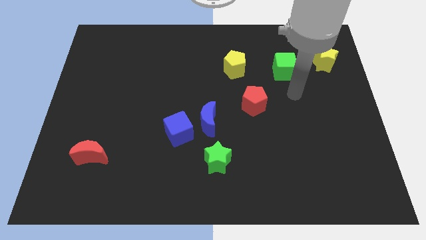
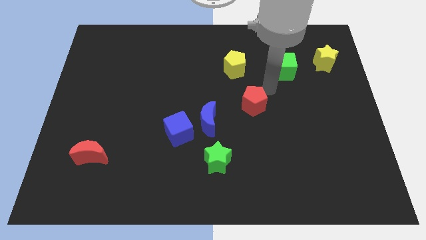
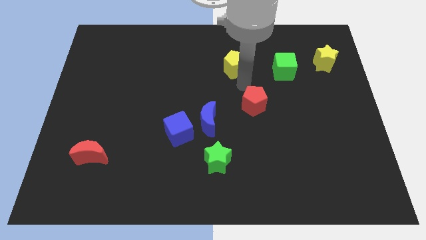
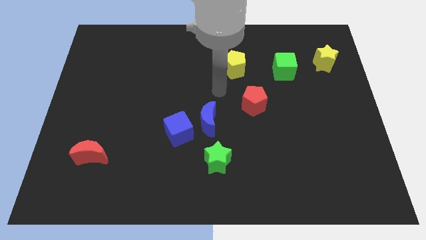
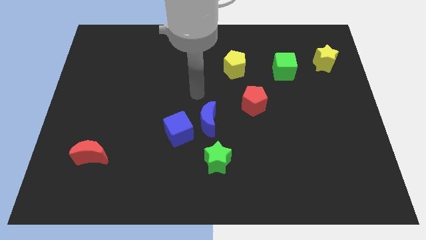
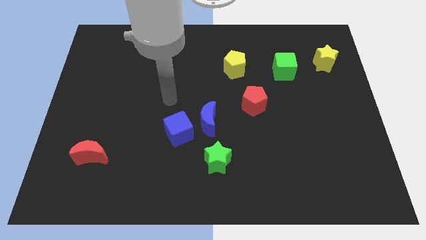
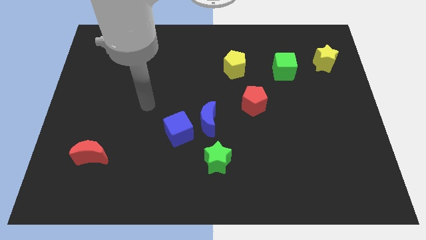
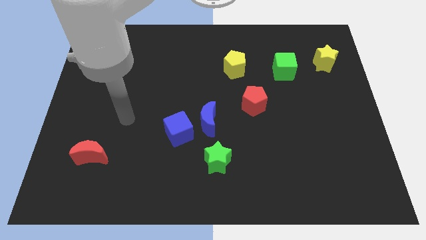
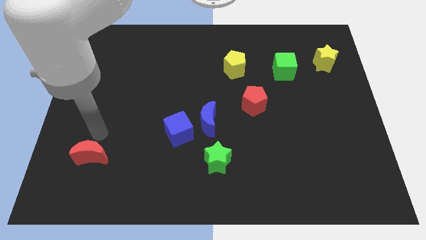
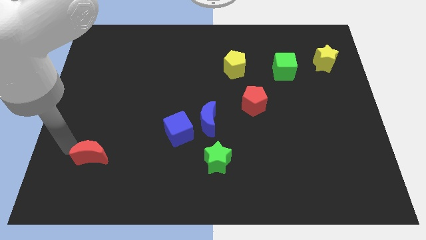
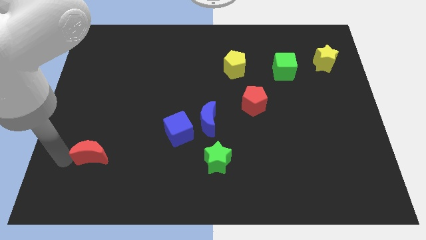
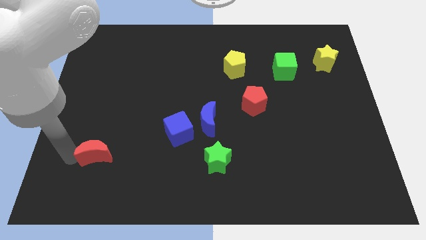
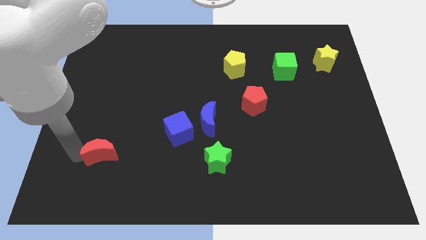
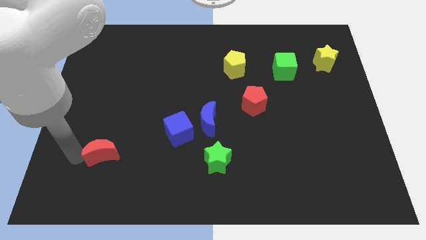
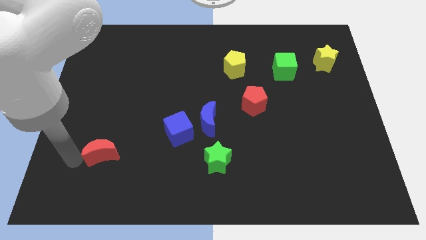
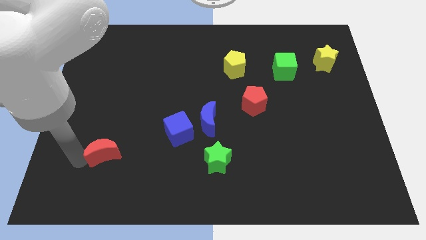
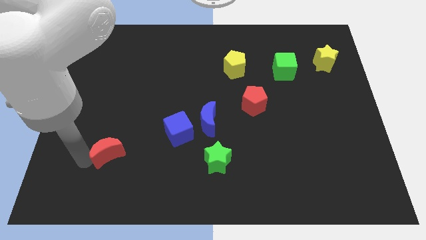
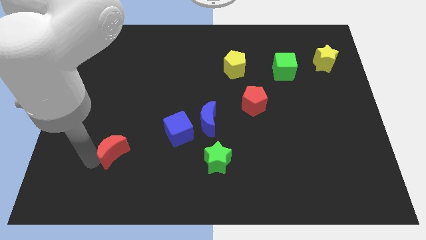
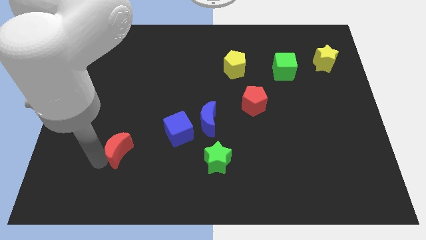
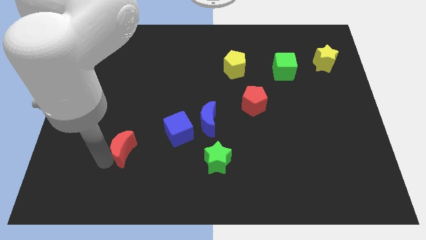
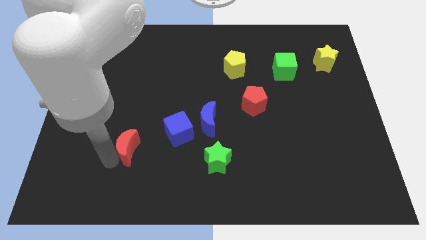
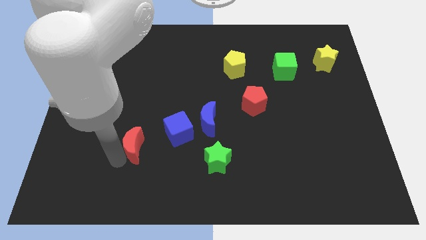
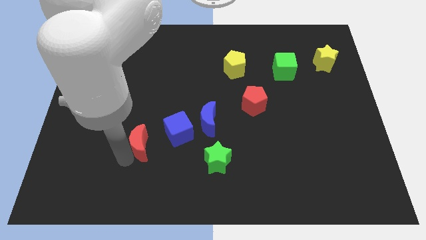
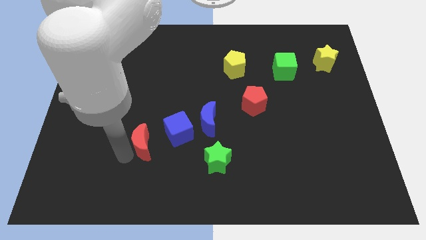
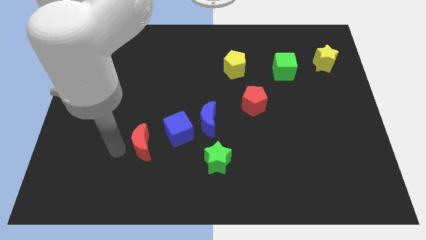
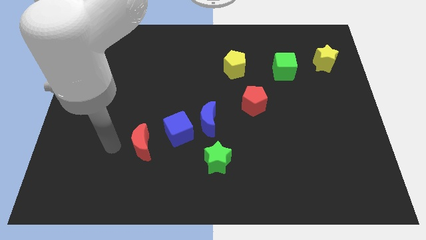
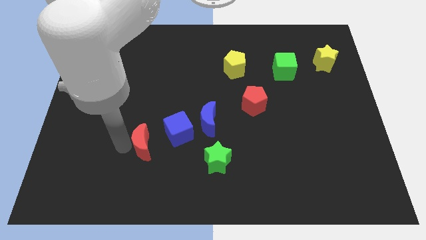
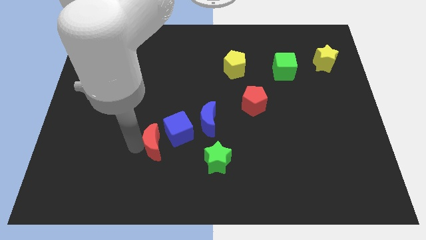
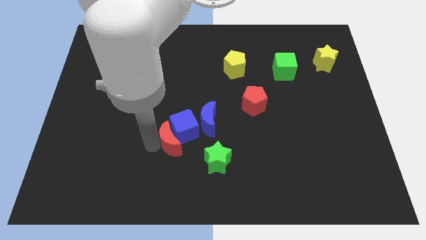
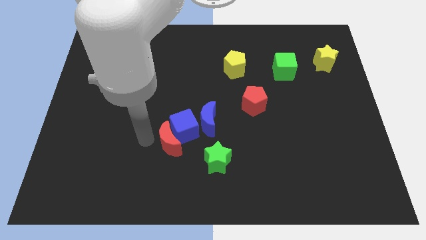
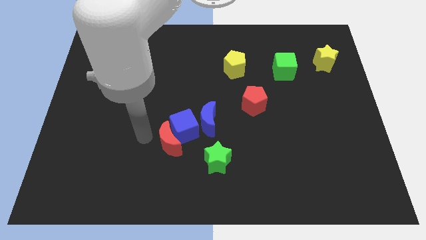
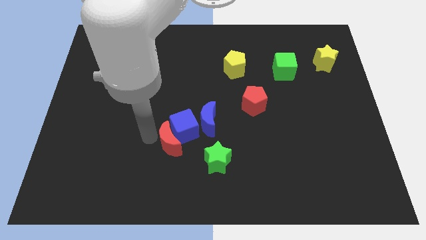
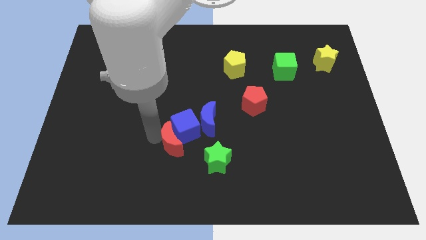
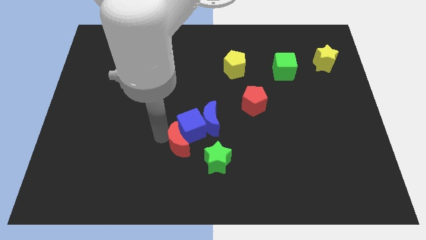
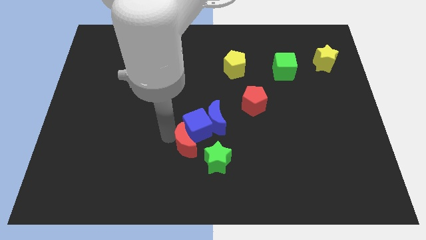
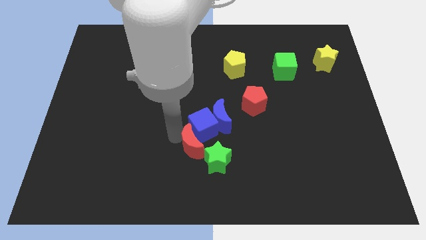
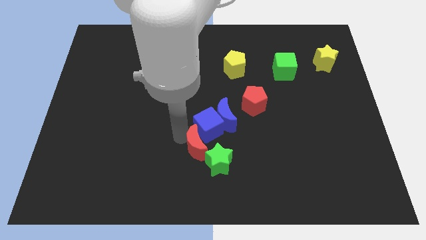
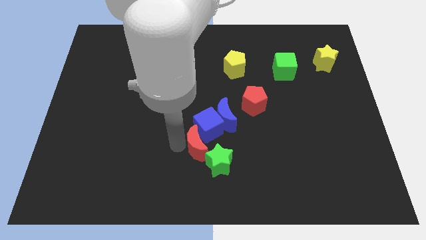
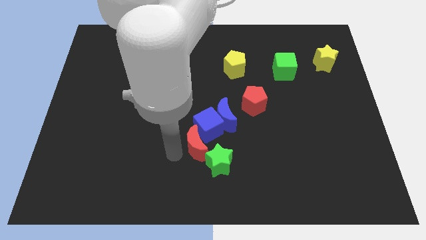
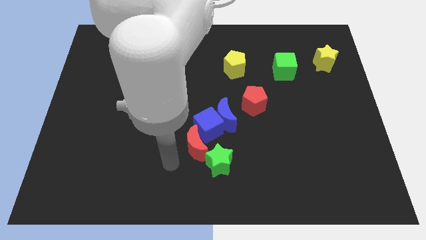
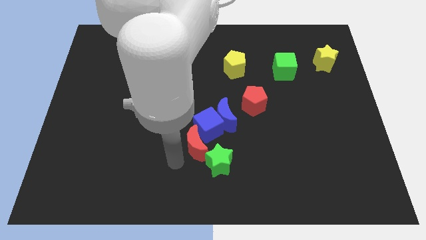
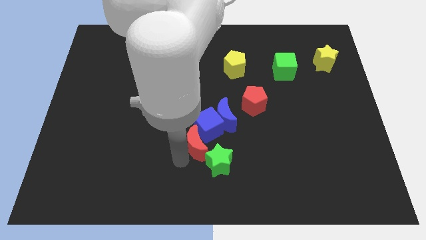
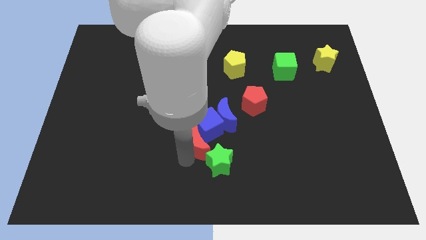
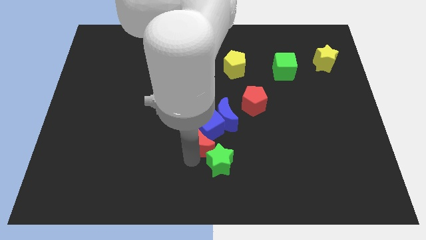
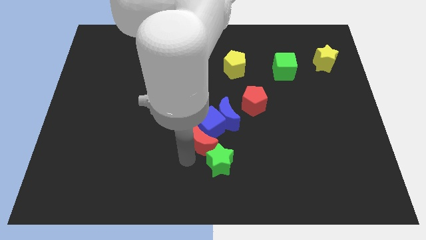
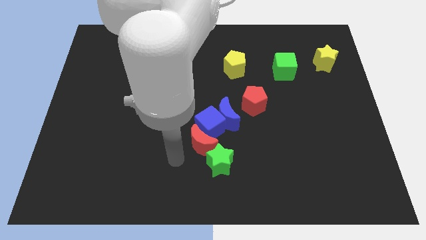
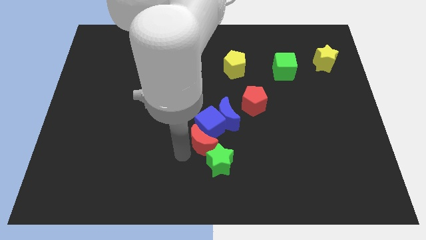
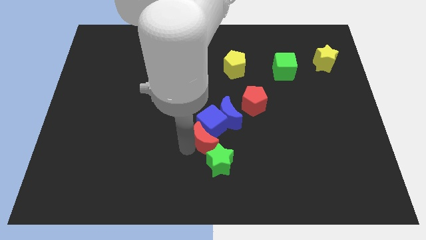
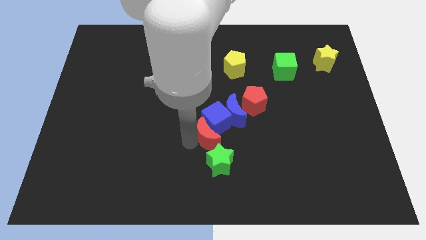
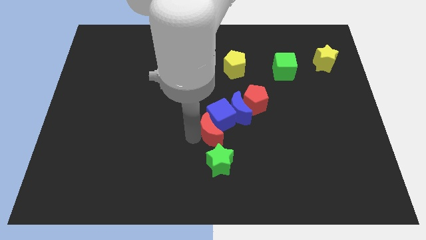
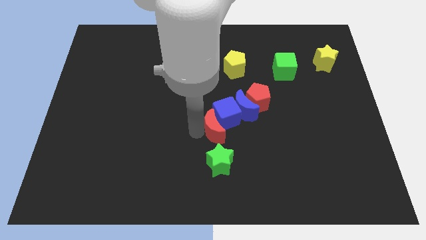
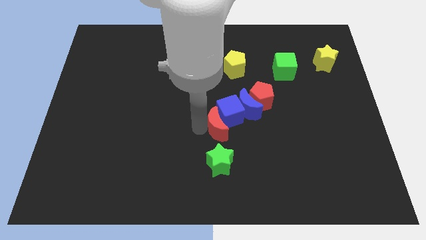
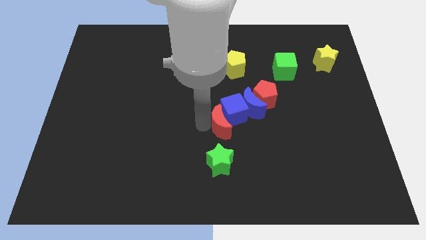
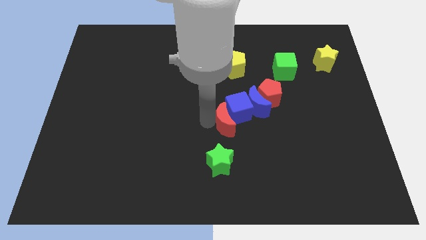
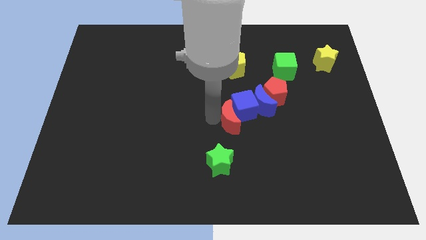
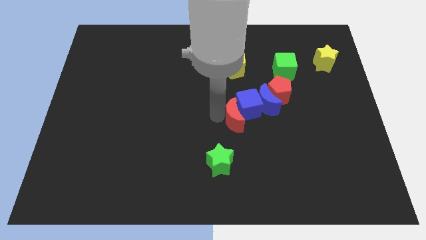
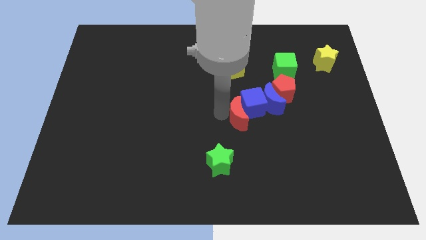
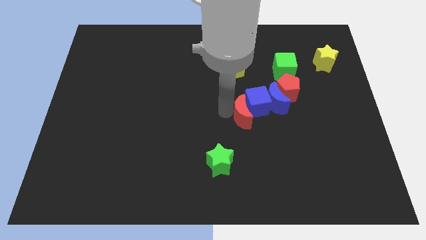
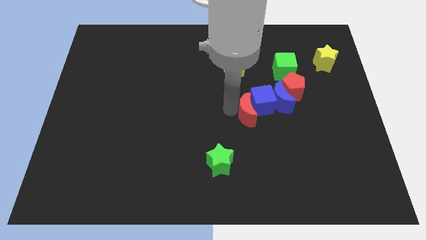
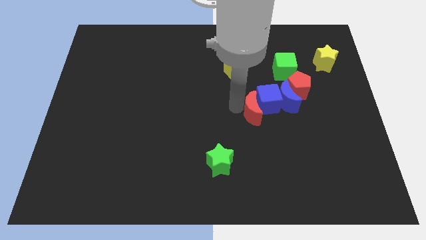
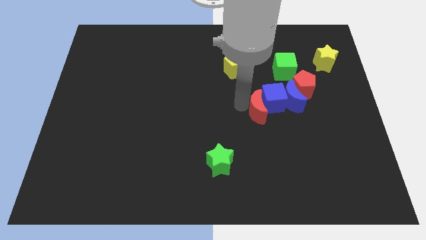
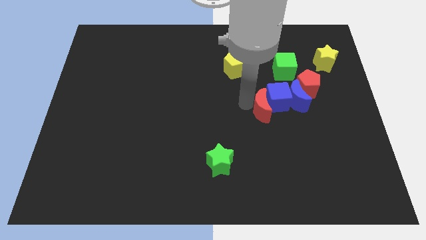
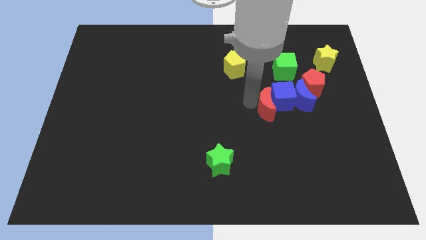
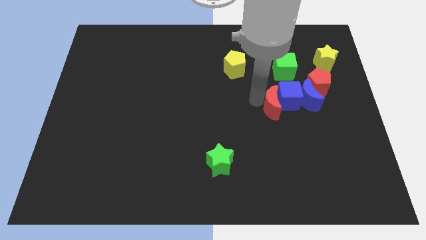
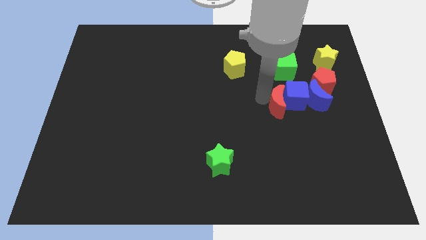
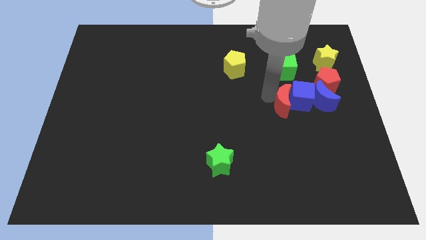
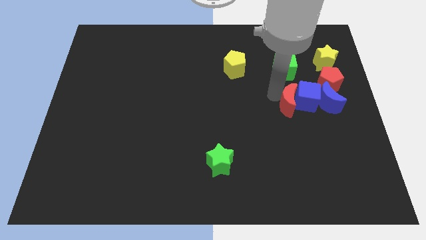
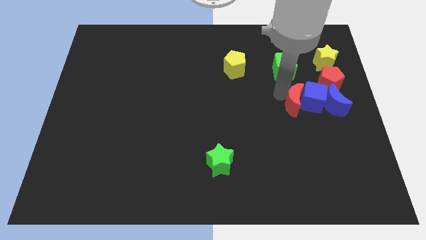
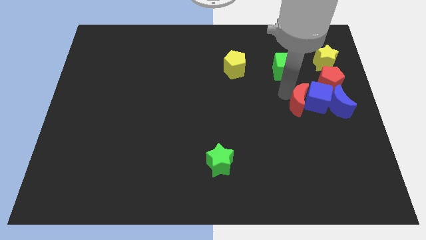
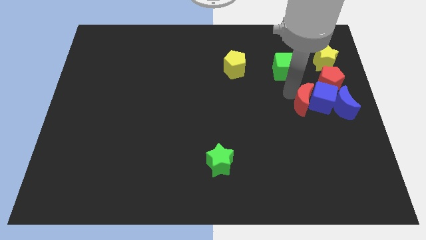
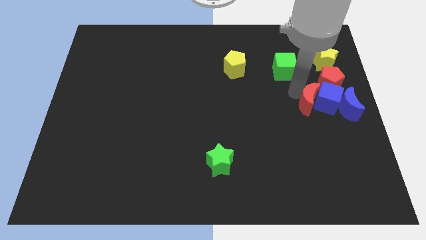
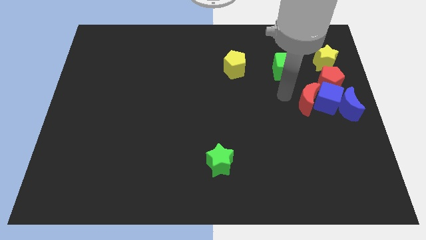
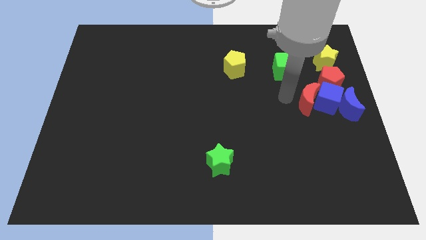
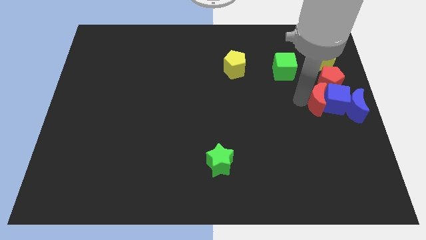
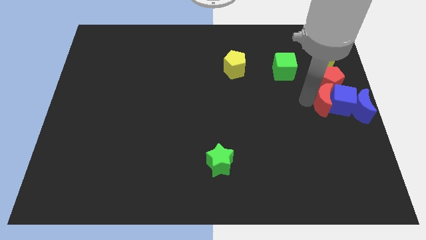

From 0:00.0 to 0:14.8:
put the red moon to the center right
